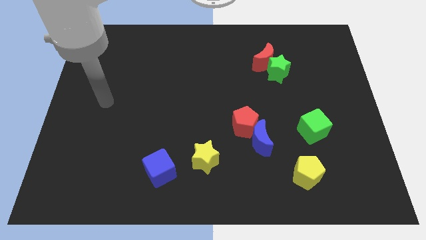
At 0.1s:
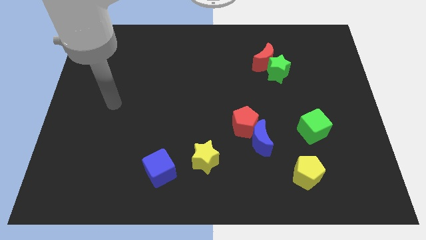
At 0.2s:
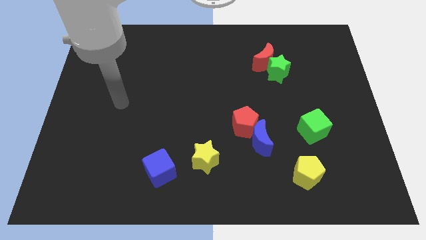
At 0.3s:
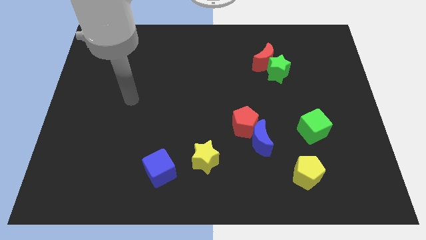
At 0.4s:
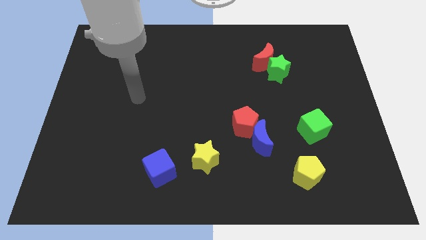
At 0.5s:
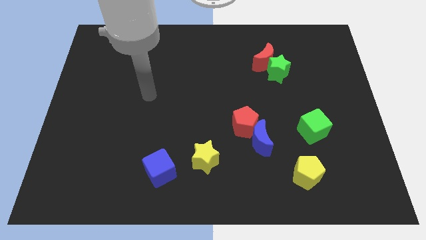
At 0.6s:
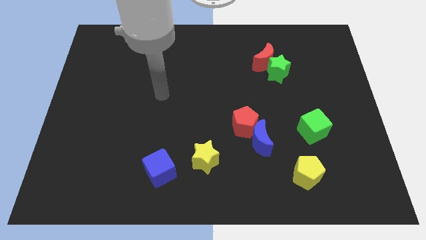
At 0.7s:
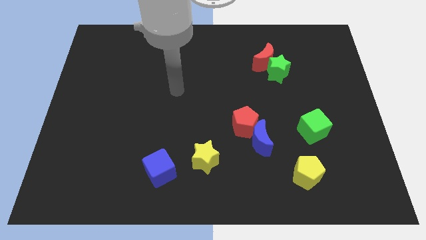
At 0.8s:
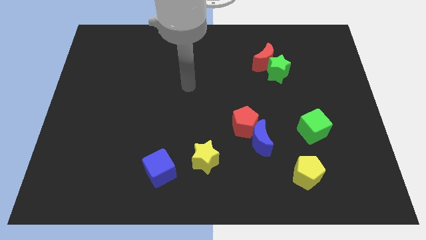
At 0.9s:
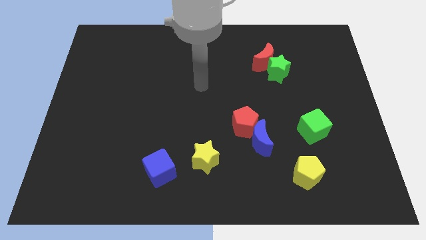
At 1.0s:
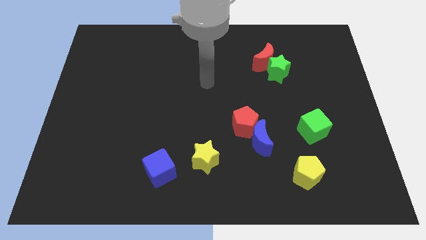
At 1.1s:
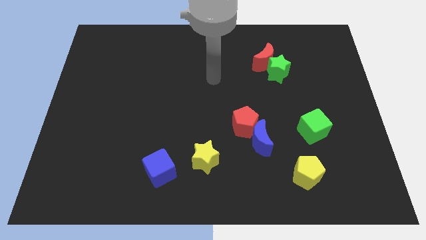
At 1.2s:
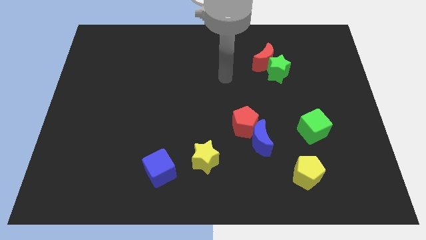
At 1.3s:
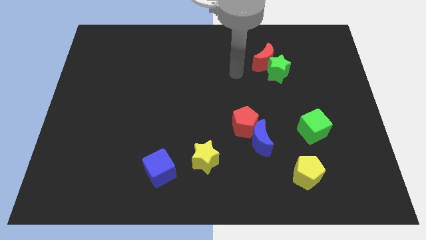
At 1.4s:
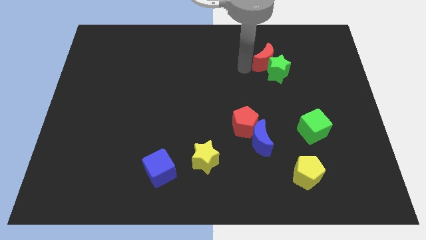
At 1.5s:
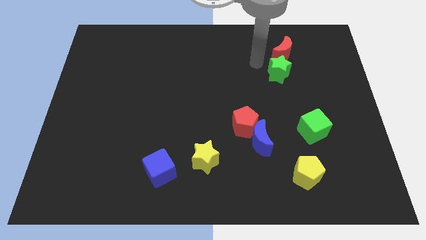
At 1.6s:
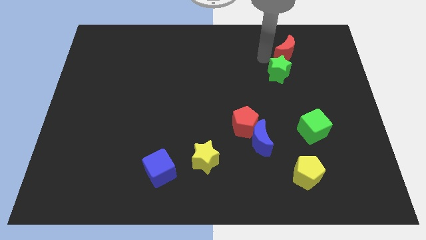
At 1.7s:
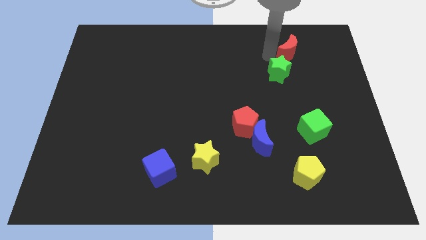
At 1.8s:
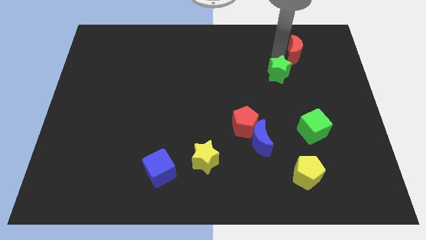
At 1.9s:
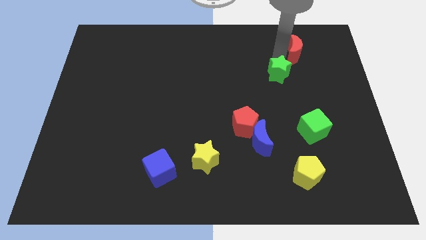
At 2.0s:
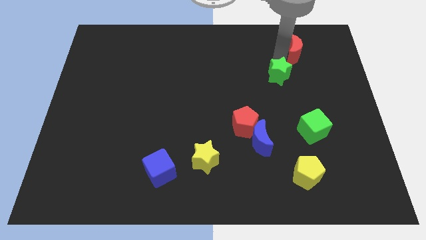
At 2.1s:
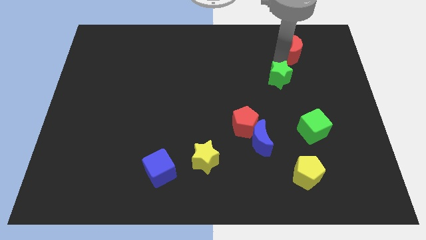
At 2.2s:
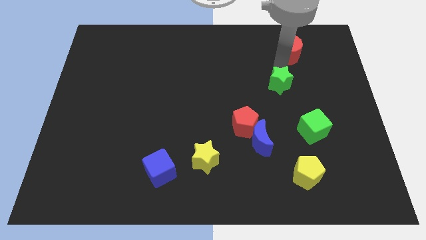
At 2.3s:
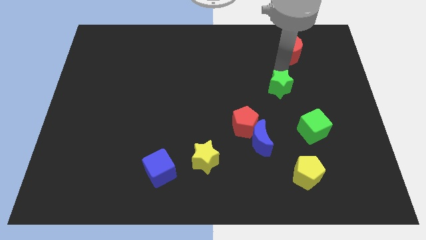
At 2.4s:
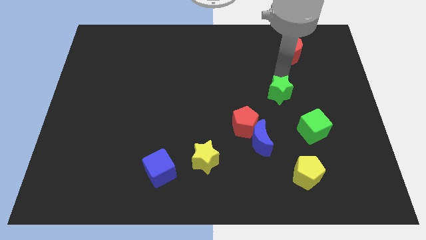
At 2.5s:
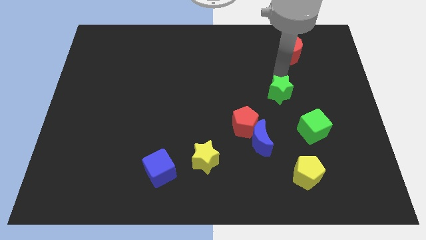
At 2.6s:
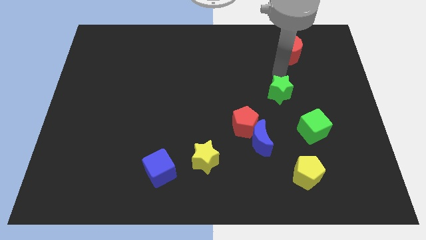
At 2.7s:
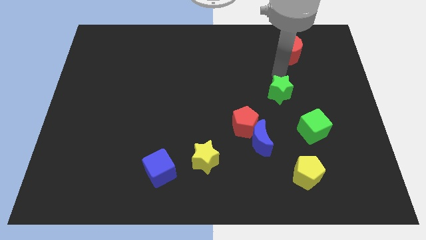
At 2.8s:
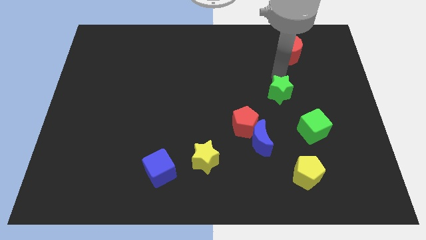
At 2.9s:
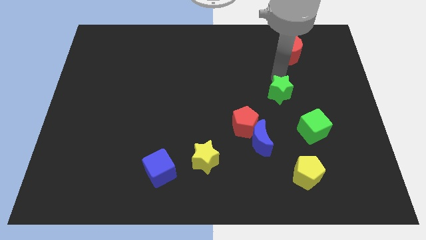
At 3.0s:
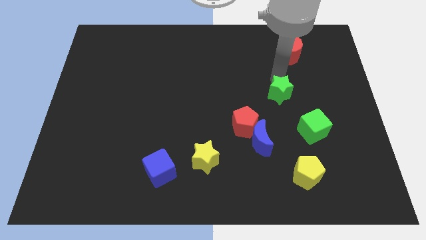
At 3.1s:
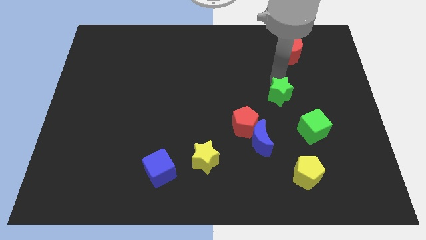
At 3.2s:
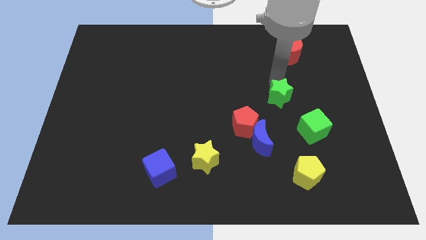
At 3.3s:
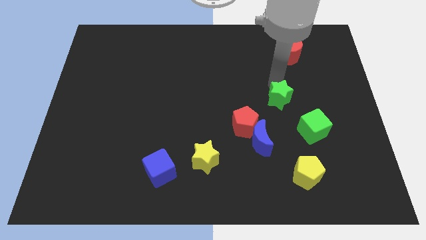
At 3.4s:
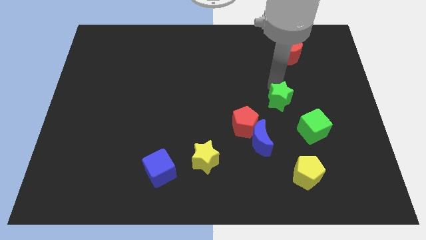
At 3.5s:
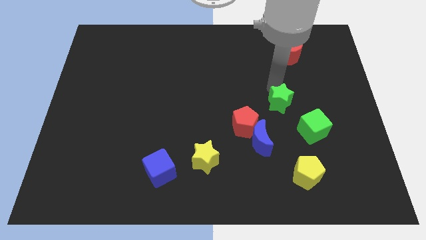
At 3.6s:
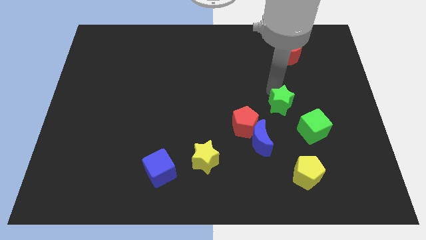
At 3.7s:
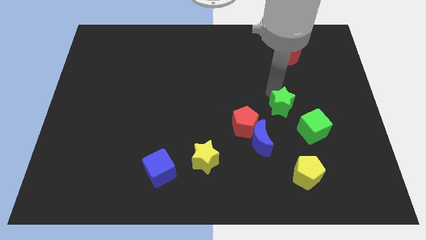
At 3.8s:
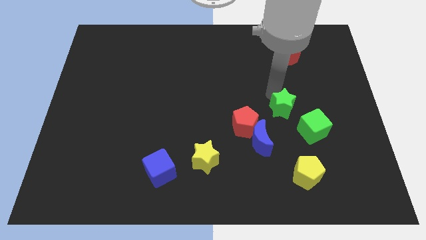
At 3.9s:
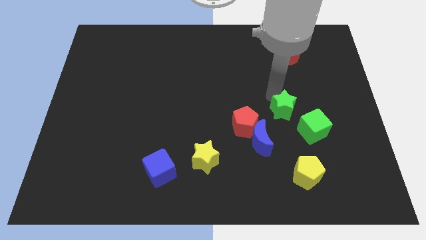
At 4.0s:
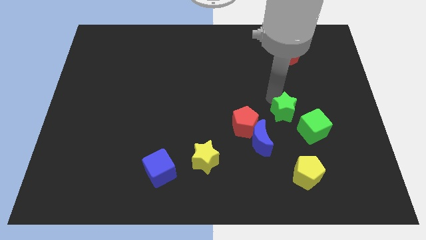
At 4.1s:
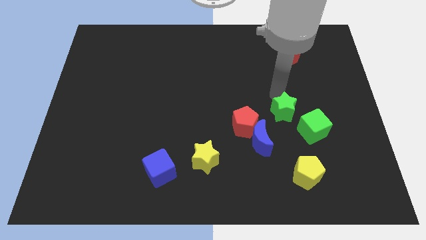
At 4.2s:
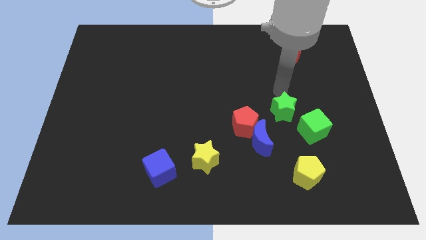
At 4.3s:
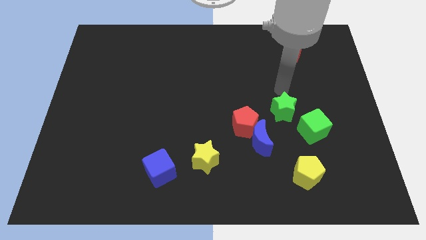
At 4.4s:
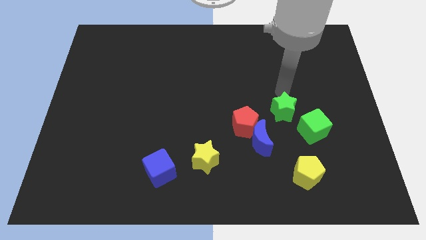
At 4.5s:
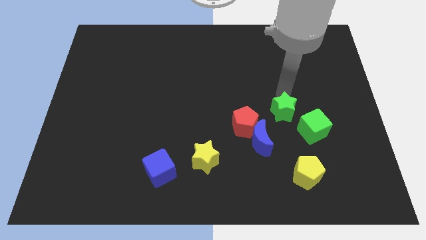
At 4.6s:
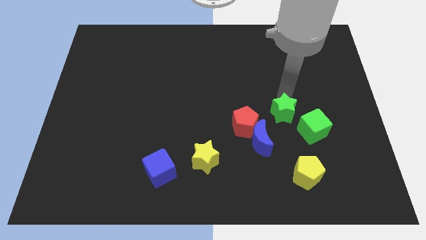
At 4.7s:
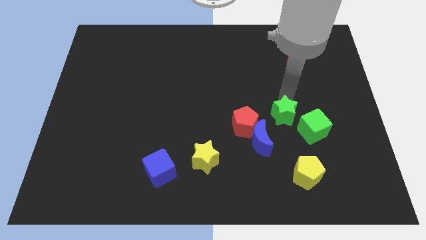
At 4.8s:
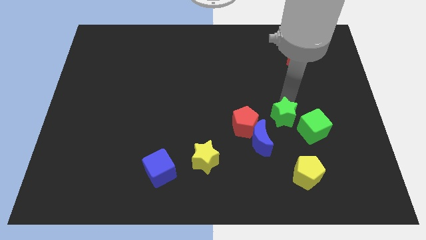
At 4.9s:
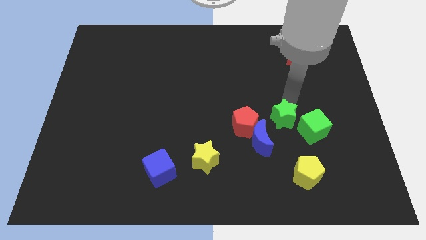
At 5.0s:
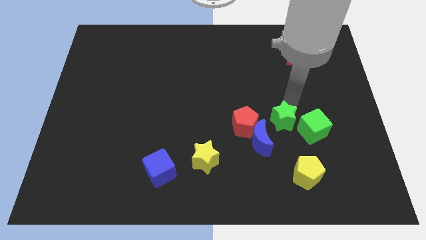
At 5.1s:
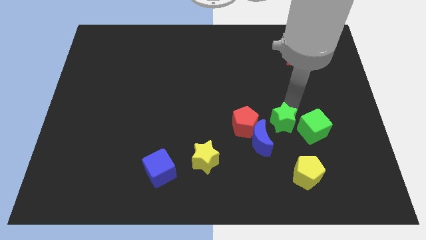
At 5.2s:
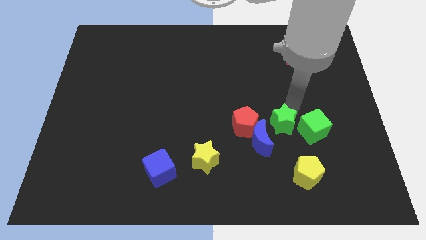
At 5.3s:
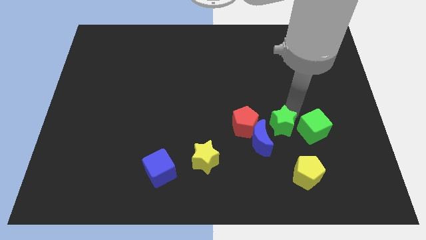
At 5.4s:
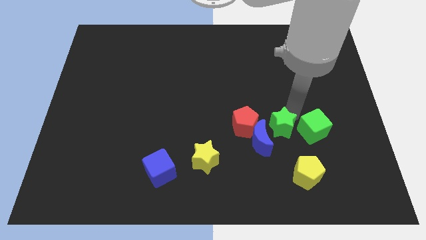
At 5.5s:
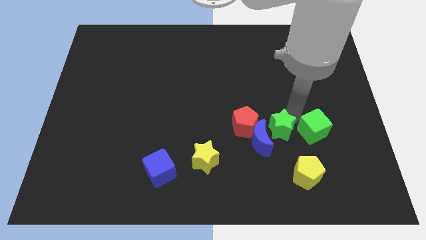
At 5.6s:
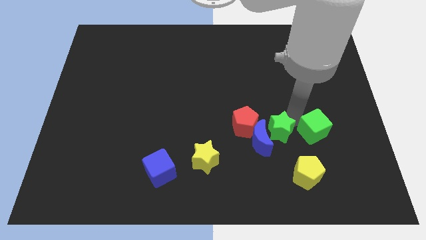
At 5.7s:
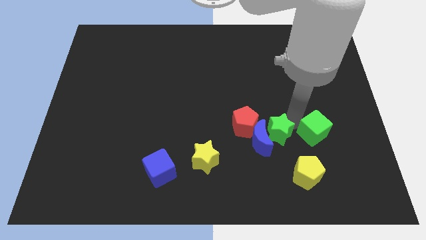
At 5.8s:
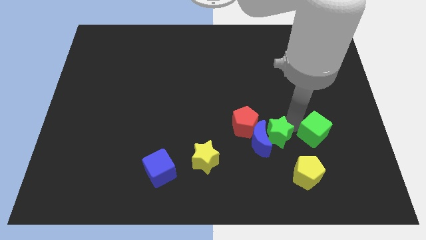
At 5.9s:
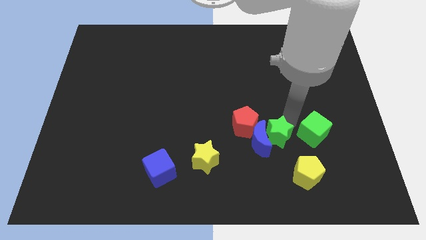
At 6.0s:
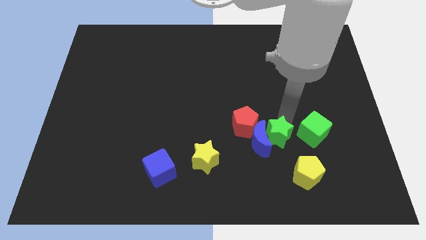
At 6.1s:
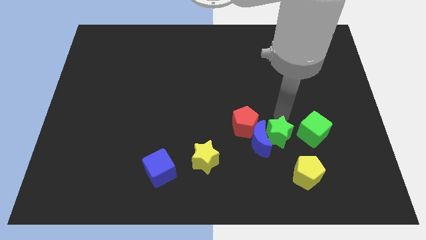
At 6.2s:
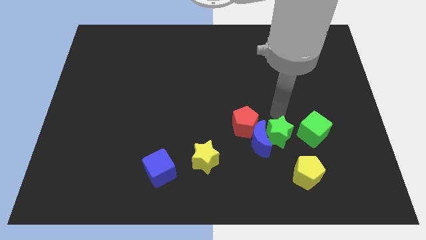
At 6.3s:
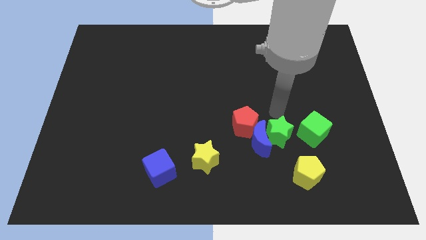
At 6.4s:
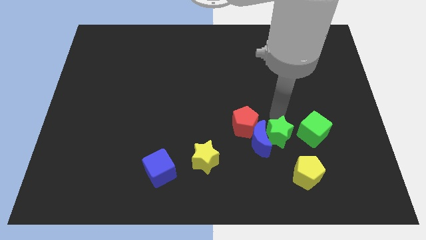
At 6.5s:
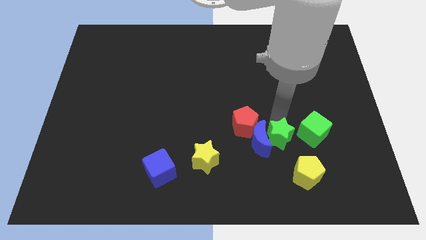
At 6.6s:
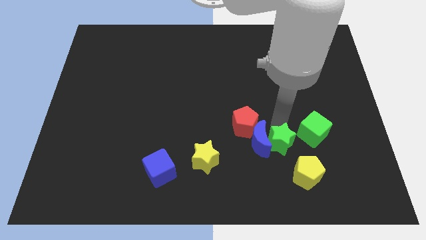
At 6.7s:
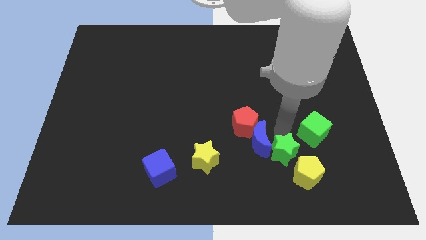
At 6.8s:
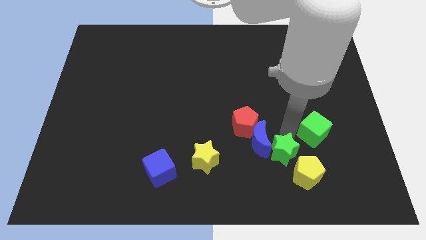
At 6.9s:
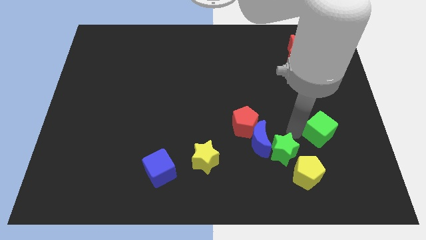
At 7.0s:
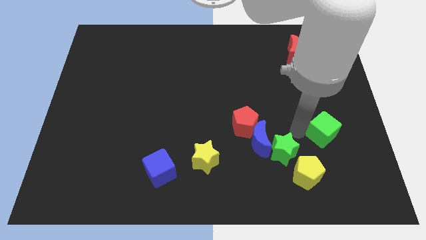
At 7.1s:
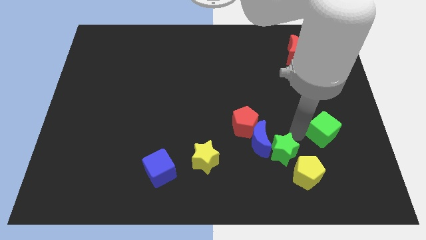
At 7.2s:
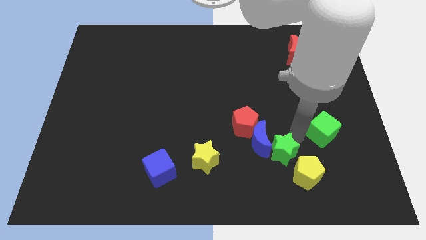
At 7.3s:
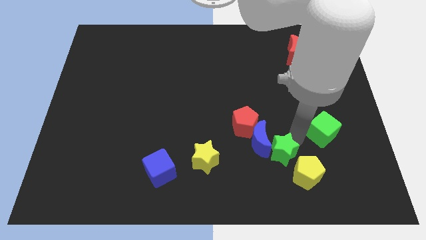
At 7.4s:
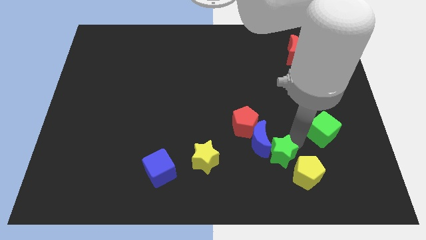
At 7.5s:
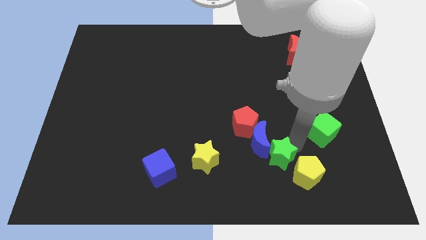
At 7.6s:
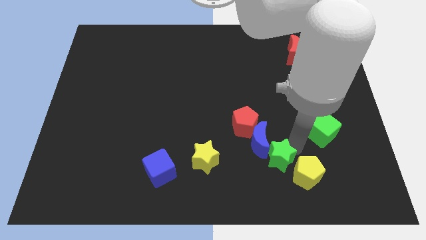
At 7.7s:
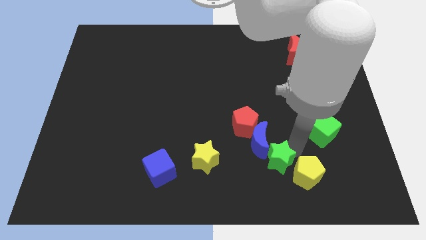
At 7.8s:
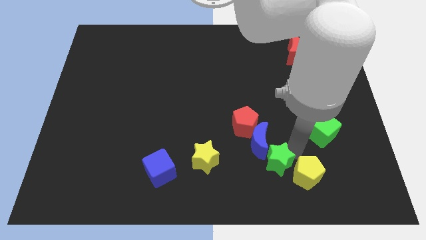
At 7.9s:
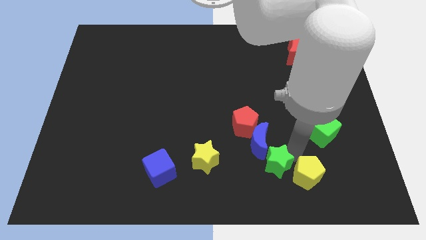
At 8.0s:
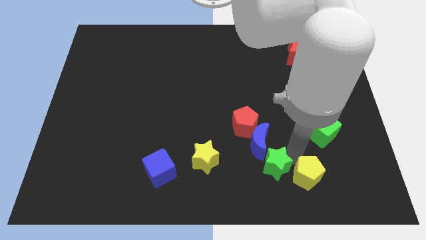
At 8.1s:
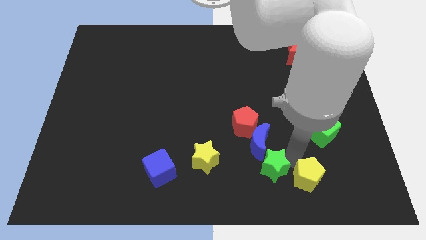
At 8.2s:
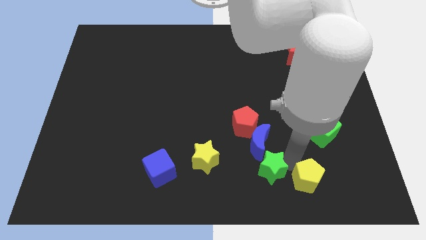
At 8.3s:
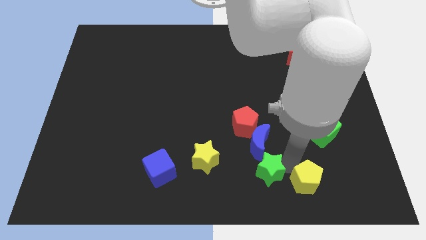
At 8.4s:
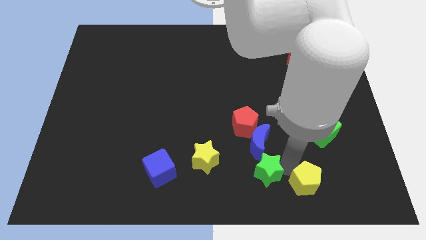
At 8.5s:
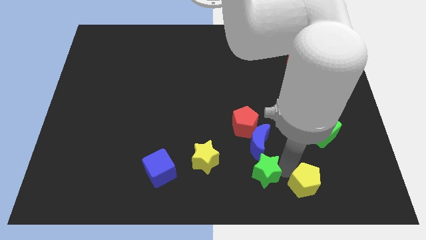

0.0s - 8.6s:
put the green star to the bottom
